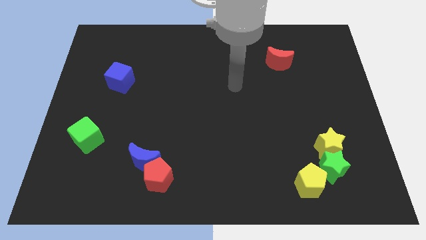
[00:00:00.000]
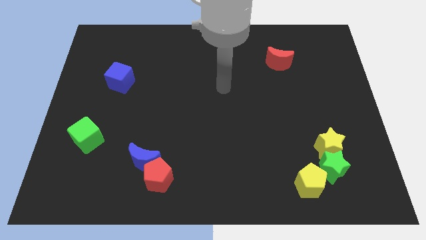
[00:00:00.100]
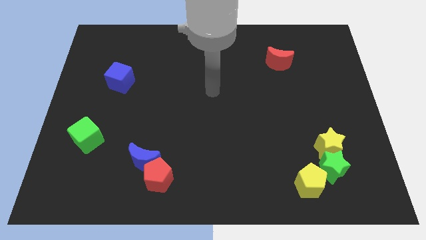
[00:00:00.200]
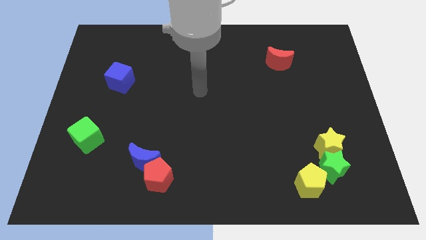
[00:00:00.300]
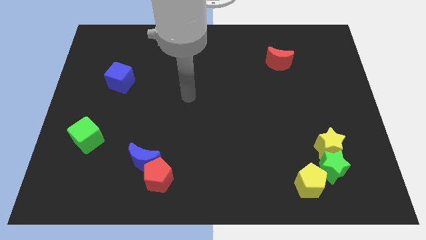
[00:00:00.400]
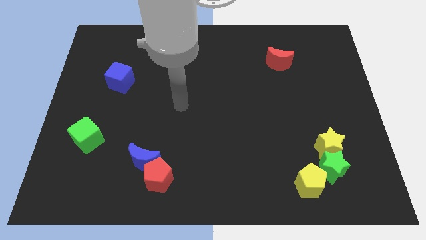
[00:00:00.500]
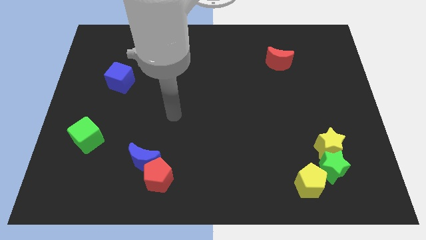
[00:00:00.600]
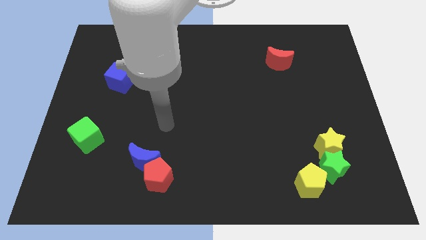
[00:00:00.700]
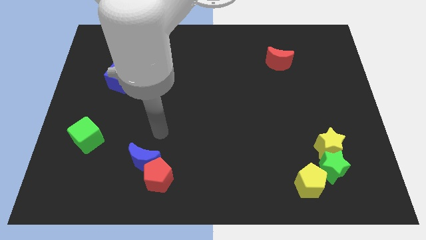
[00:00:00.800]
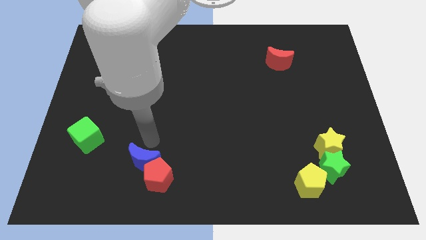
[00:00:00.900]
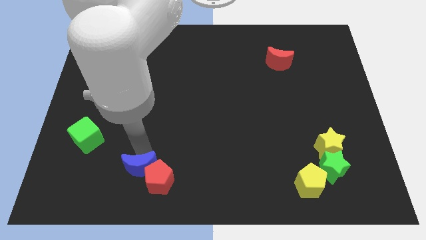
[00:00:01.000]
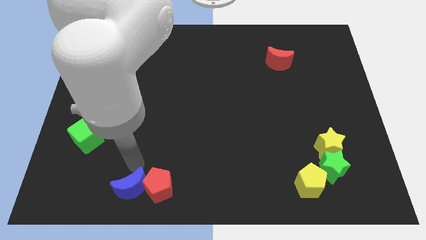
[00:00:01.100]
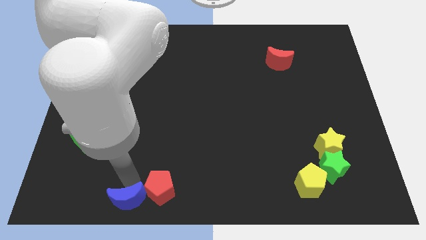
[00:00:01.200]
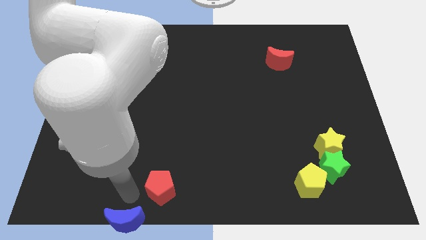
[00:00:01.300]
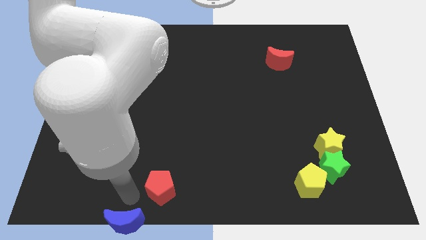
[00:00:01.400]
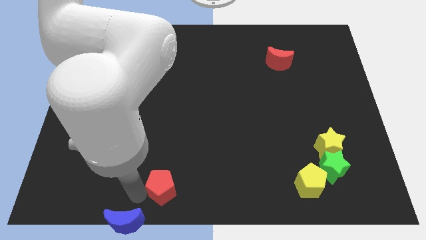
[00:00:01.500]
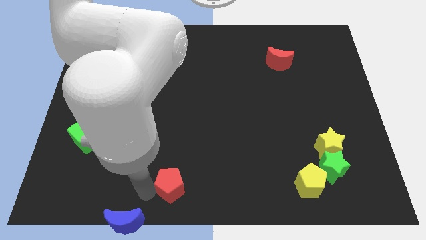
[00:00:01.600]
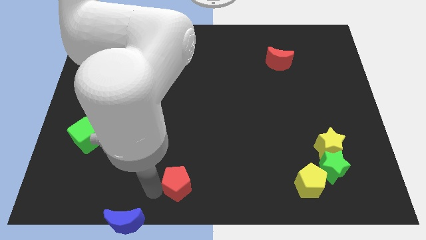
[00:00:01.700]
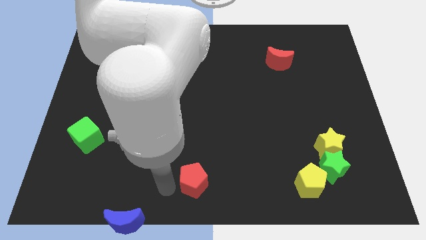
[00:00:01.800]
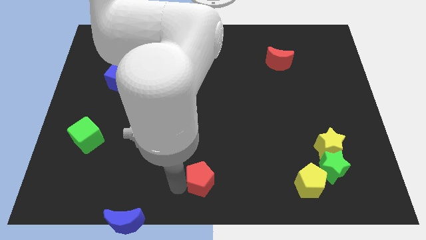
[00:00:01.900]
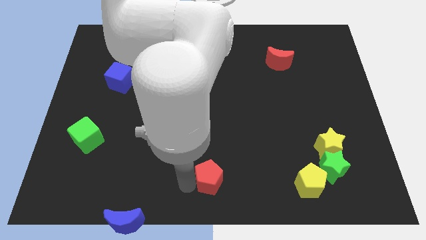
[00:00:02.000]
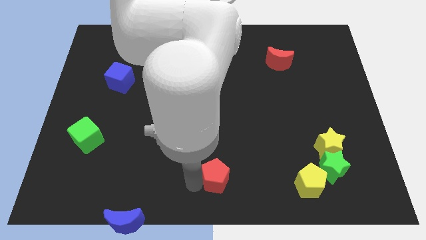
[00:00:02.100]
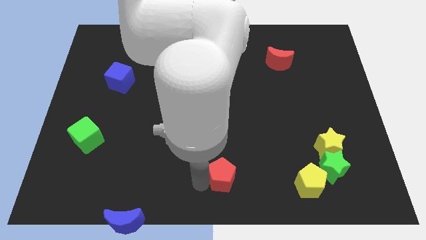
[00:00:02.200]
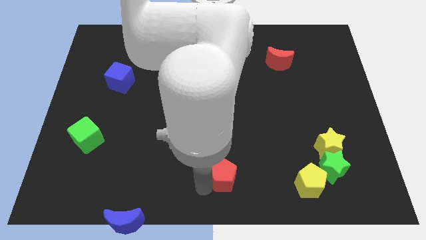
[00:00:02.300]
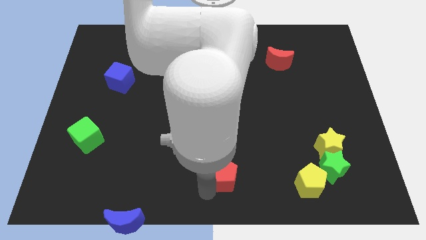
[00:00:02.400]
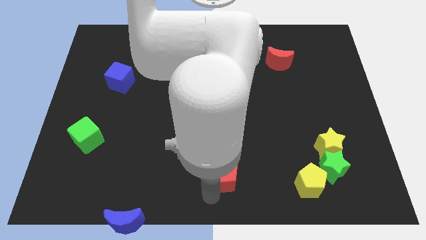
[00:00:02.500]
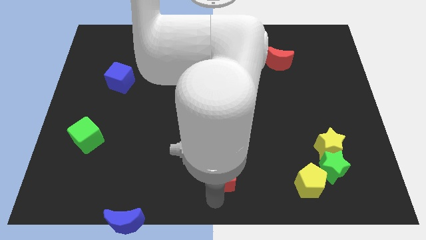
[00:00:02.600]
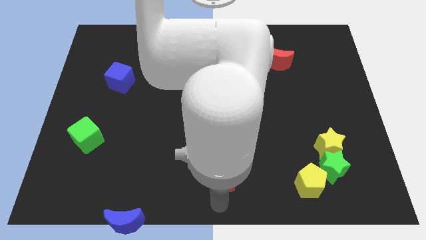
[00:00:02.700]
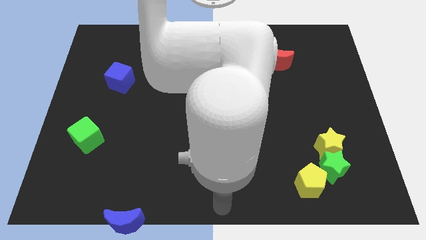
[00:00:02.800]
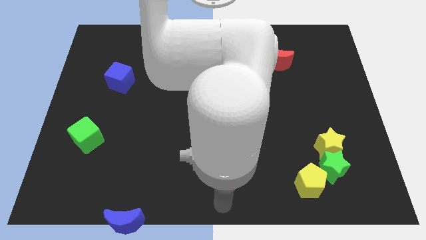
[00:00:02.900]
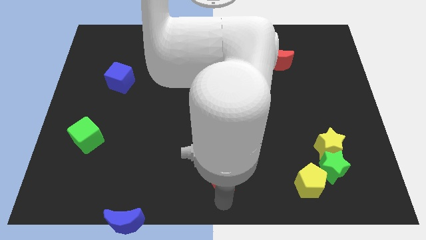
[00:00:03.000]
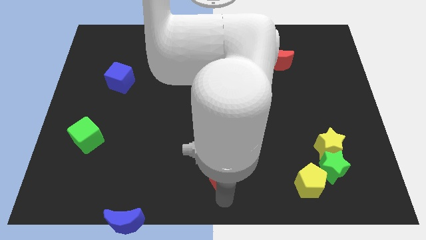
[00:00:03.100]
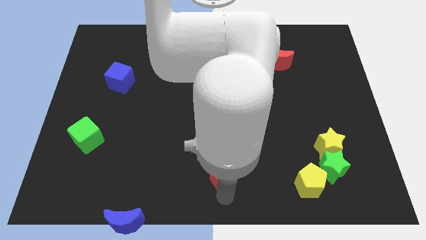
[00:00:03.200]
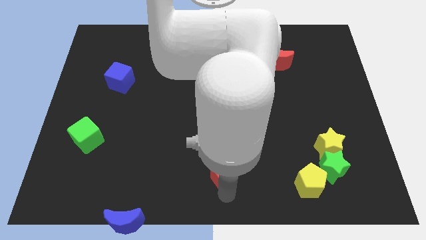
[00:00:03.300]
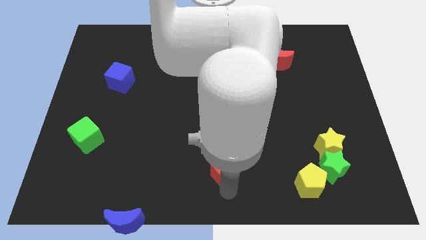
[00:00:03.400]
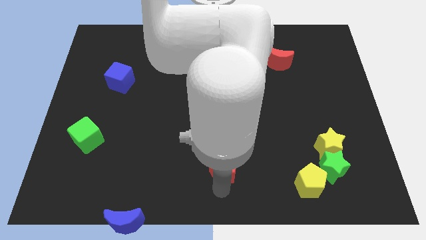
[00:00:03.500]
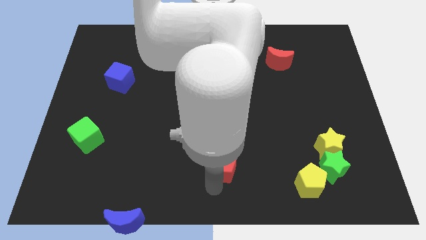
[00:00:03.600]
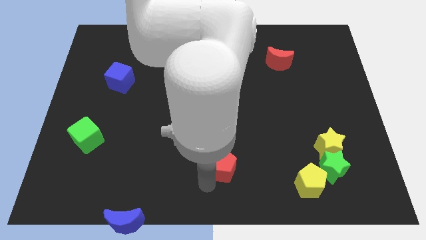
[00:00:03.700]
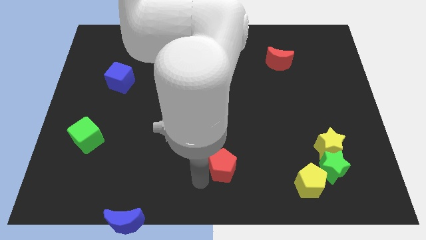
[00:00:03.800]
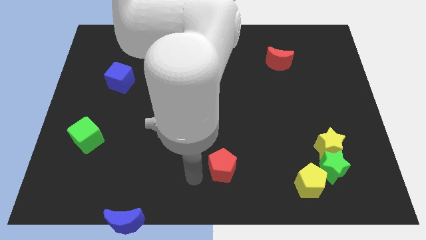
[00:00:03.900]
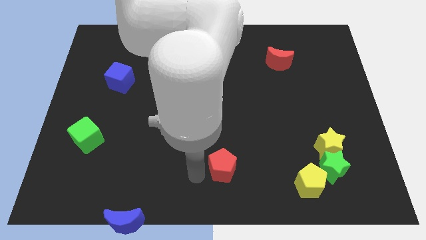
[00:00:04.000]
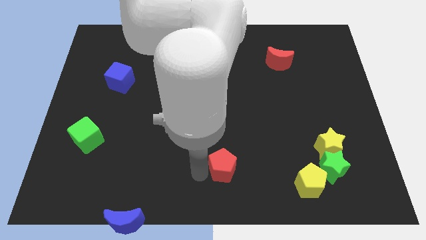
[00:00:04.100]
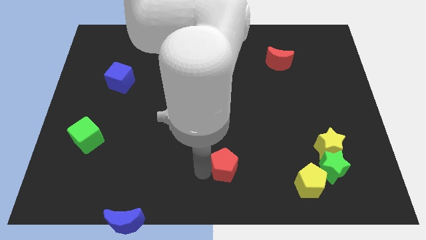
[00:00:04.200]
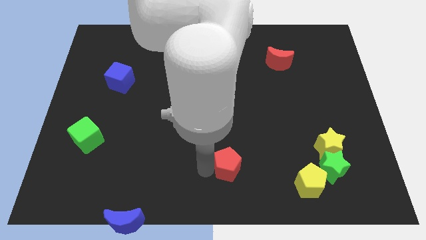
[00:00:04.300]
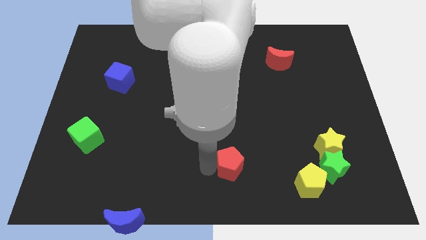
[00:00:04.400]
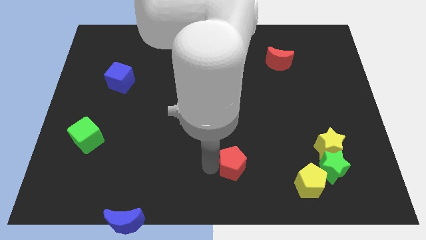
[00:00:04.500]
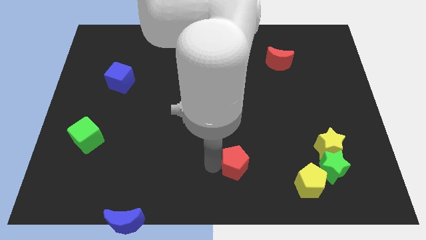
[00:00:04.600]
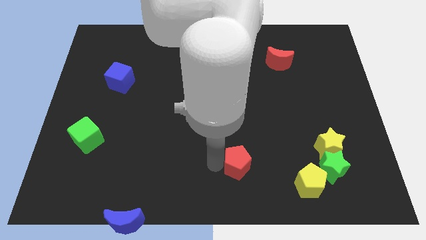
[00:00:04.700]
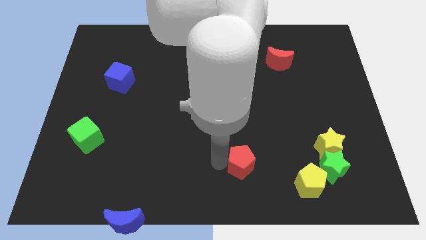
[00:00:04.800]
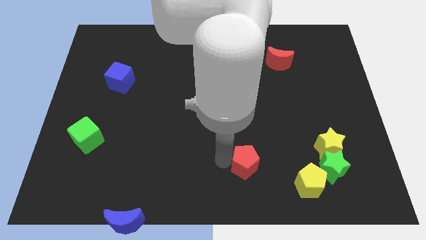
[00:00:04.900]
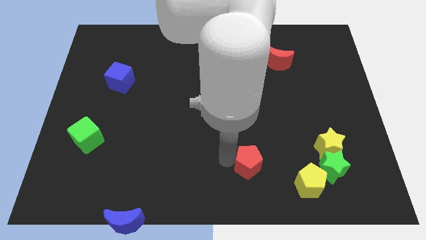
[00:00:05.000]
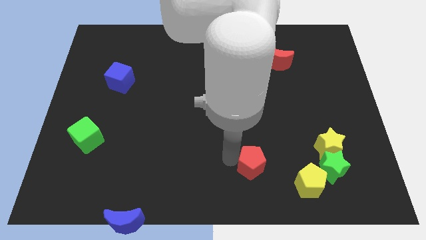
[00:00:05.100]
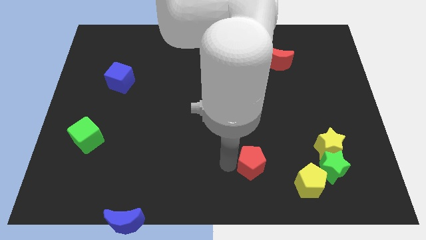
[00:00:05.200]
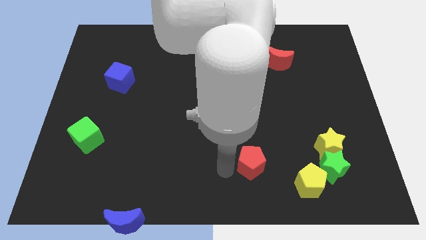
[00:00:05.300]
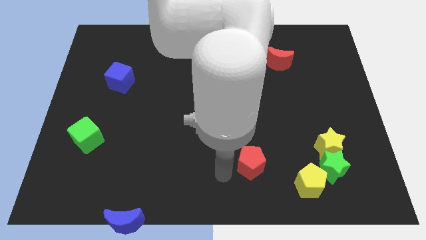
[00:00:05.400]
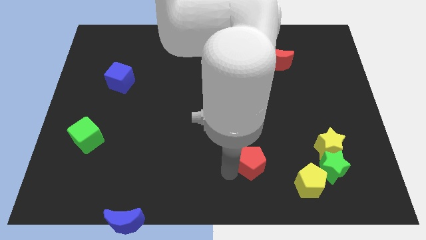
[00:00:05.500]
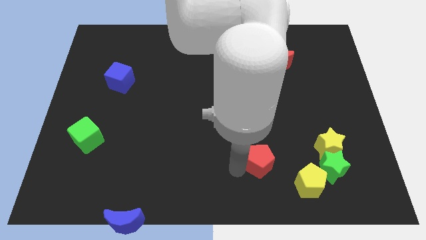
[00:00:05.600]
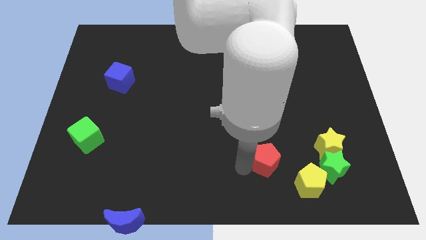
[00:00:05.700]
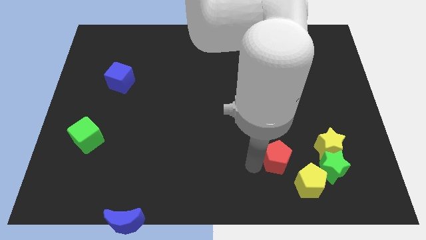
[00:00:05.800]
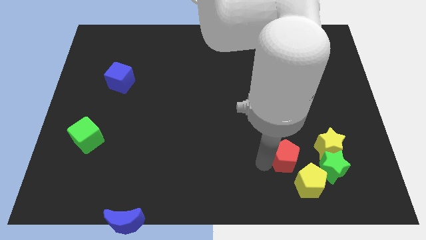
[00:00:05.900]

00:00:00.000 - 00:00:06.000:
push the red pentagon to the top side of the yellow pentagon

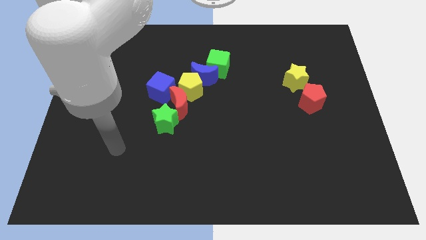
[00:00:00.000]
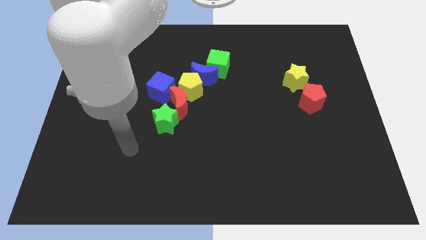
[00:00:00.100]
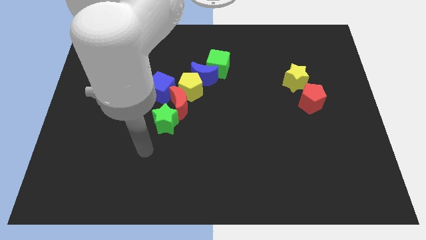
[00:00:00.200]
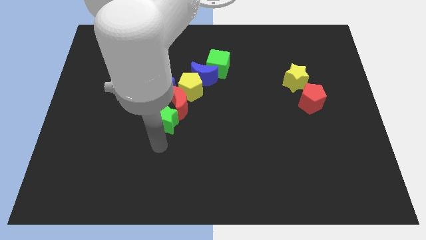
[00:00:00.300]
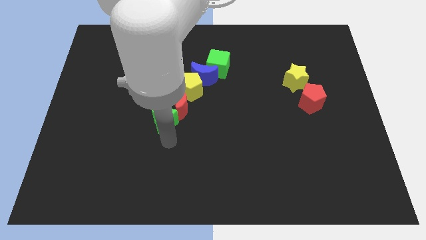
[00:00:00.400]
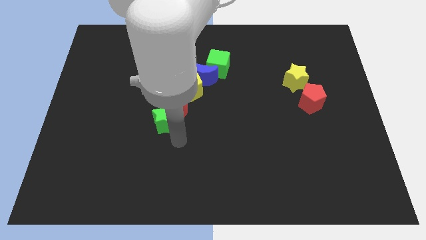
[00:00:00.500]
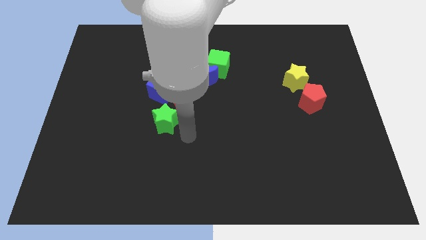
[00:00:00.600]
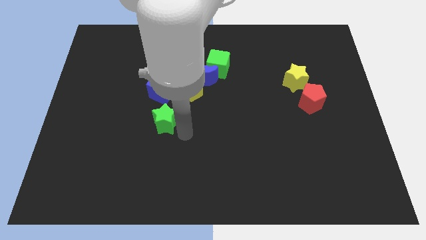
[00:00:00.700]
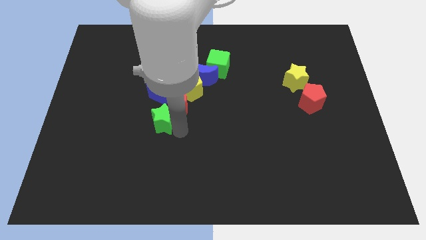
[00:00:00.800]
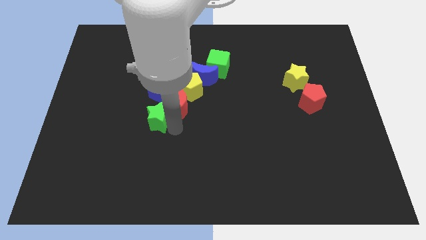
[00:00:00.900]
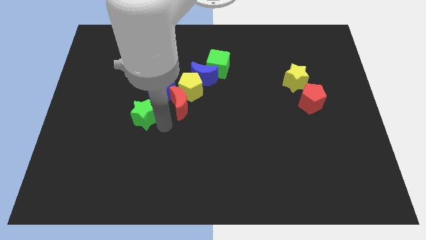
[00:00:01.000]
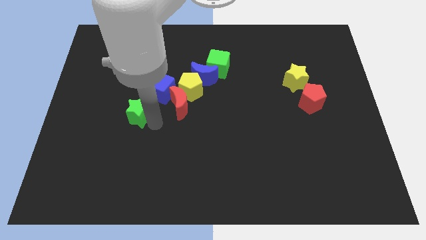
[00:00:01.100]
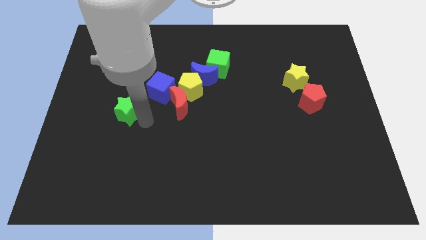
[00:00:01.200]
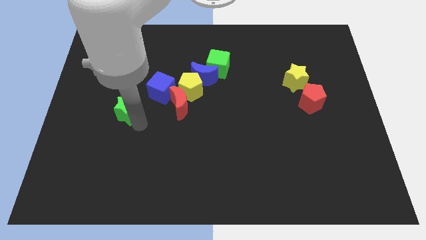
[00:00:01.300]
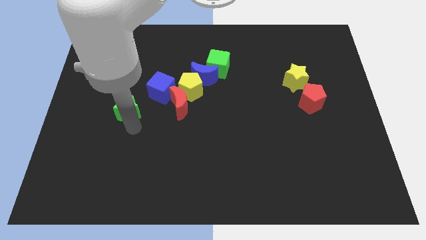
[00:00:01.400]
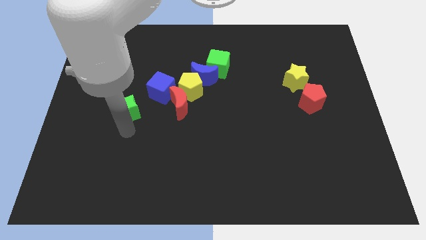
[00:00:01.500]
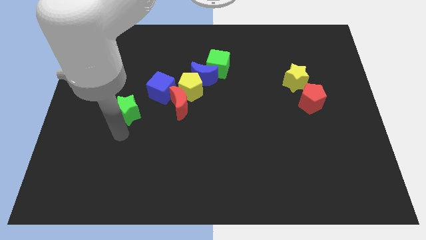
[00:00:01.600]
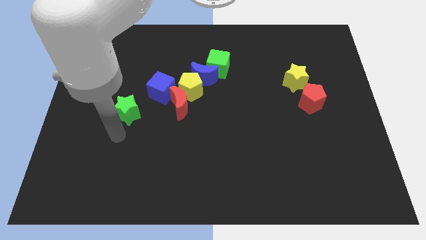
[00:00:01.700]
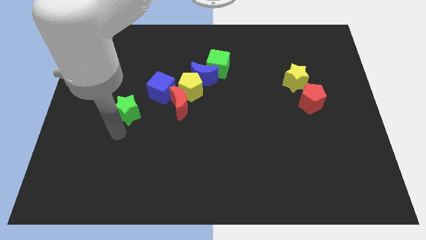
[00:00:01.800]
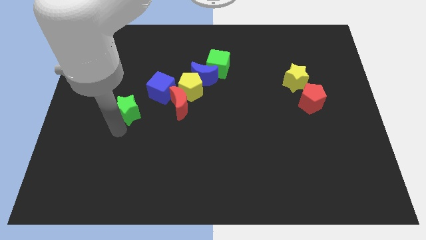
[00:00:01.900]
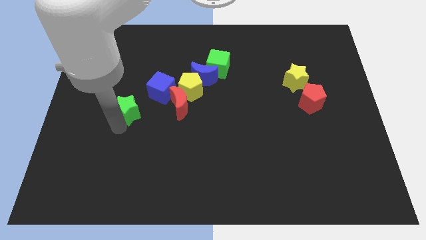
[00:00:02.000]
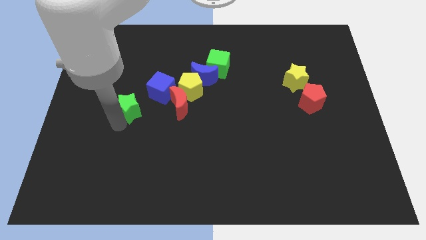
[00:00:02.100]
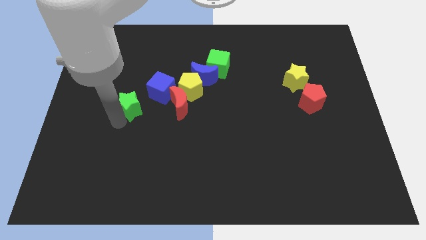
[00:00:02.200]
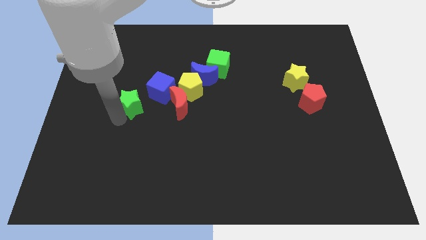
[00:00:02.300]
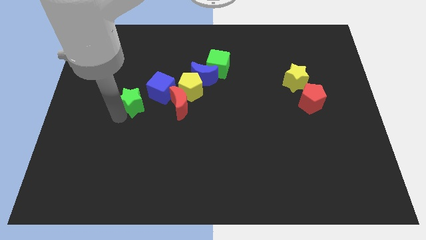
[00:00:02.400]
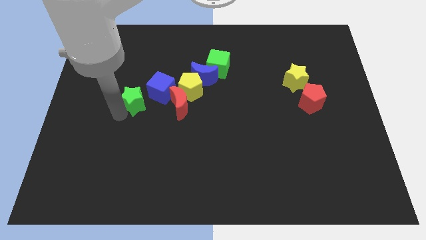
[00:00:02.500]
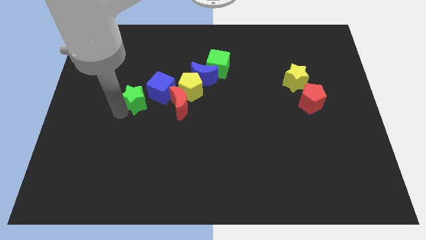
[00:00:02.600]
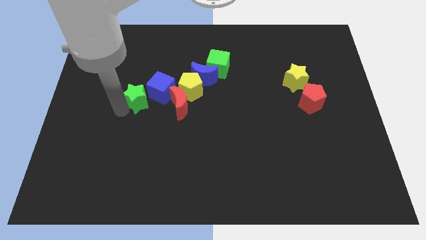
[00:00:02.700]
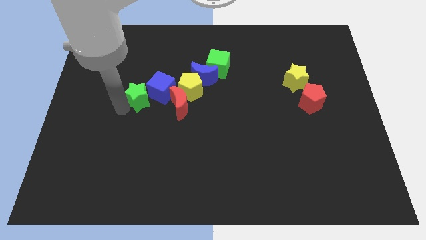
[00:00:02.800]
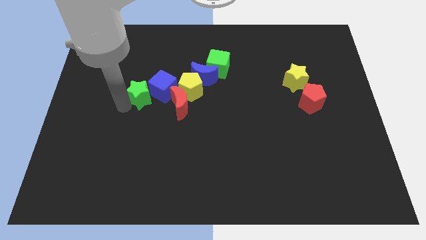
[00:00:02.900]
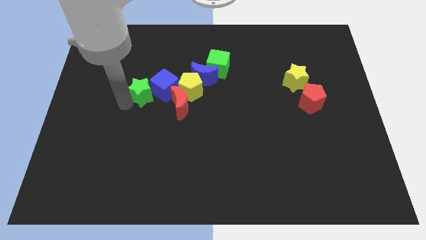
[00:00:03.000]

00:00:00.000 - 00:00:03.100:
put the green star to the top left side of the red moon
